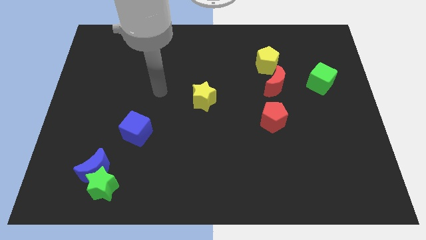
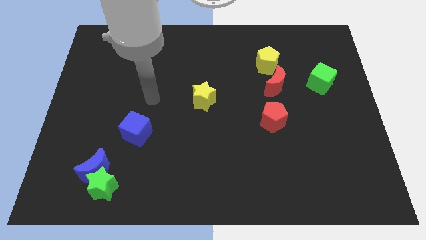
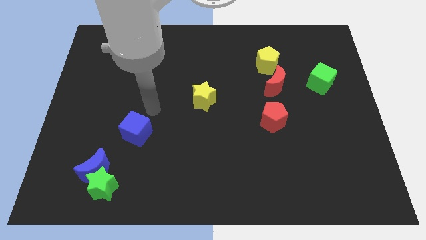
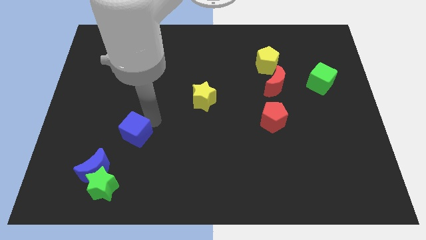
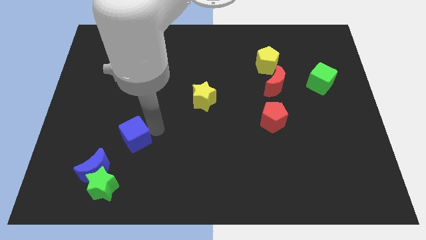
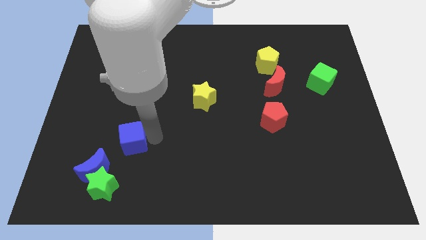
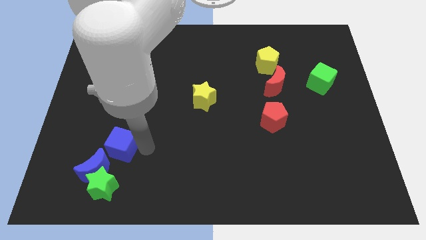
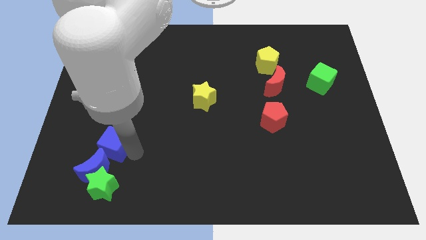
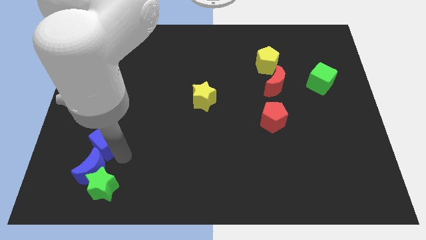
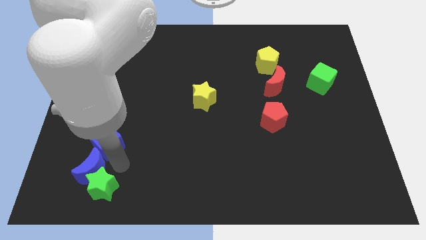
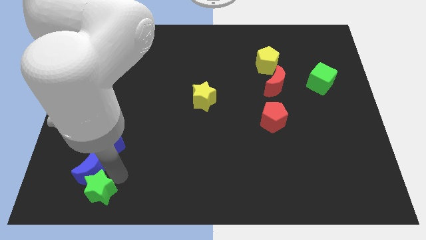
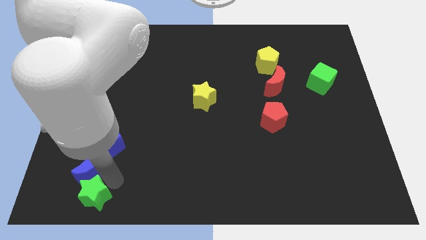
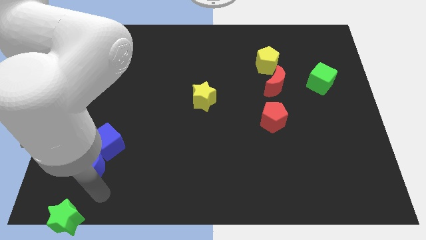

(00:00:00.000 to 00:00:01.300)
move the blue moon away from the green star

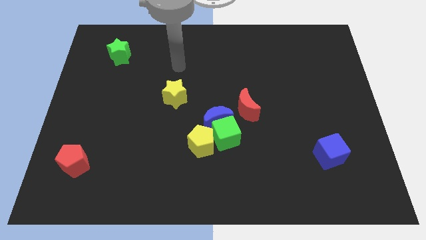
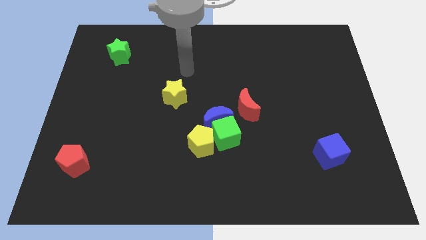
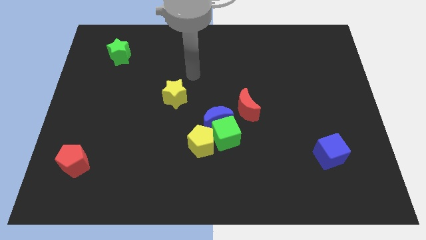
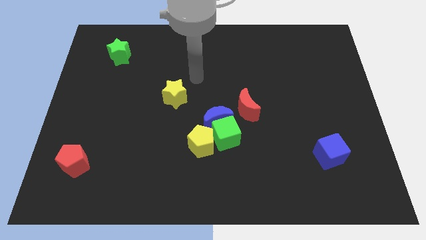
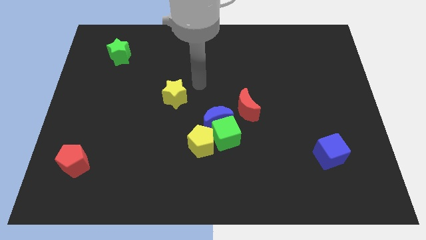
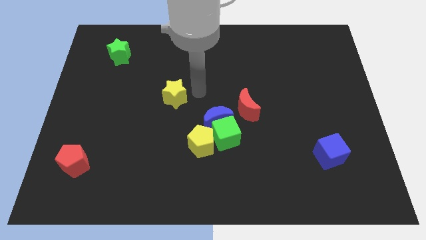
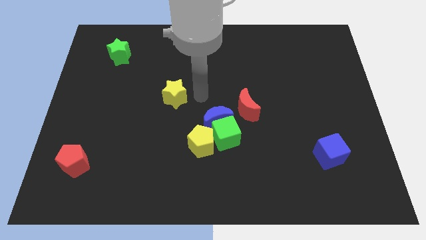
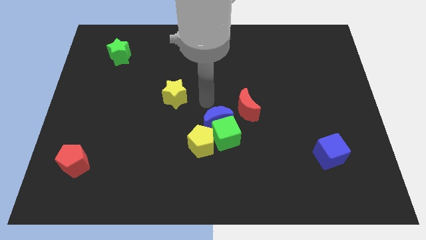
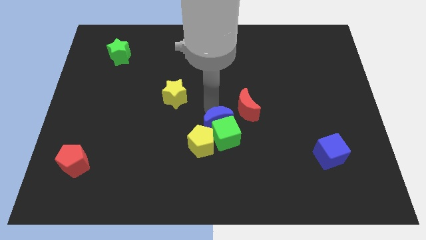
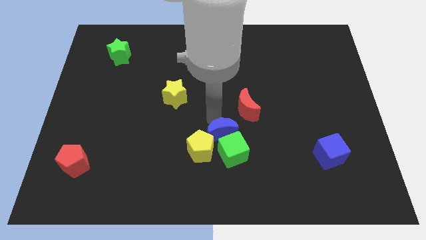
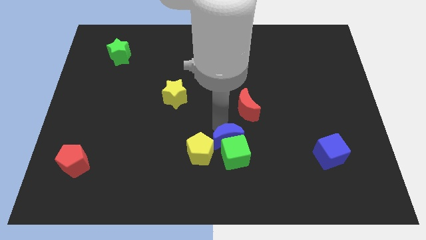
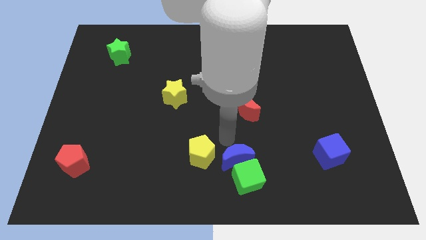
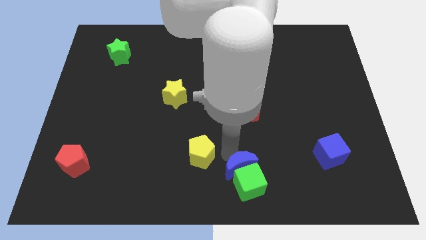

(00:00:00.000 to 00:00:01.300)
separate the yellow pentagon from the green cube and blue moon

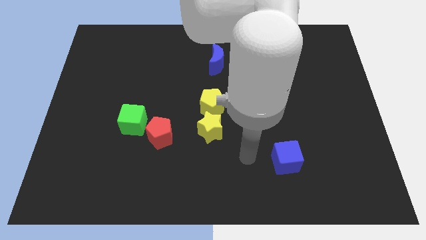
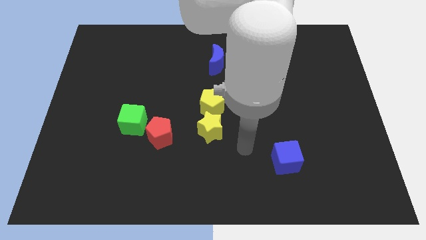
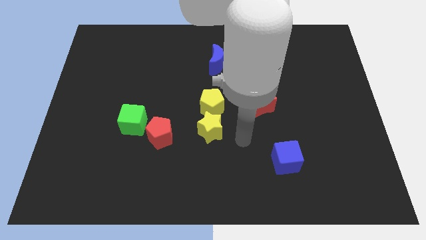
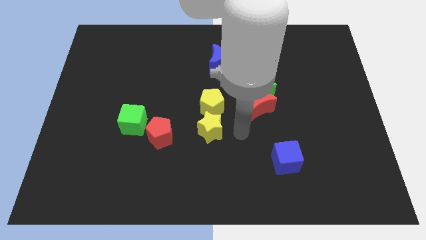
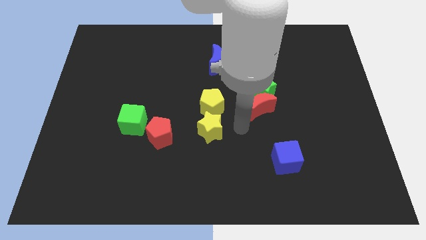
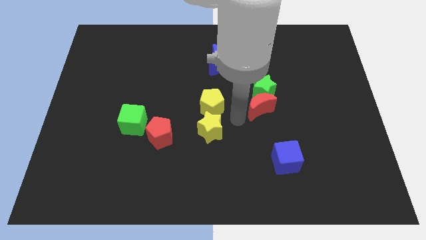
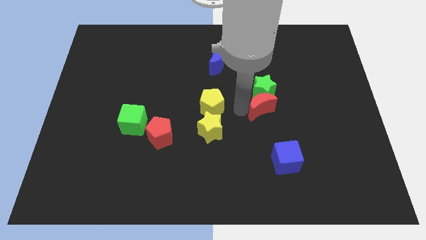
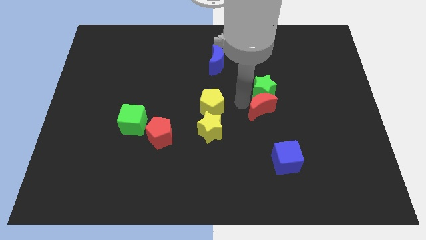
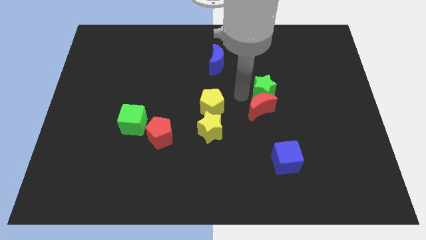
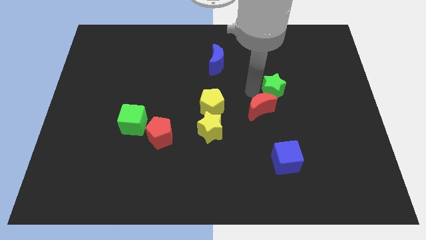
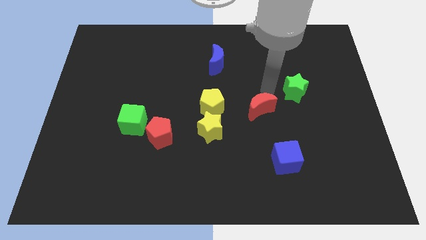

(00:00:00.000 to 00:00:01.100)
pull the red moon apart from the green star

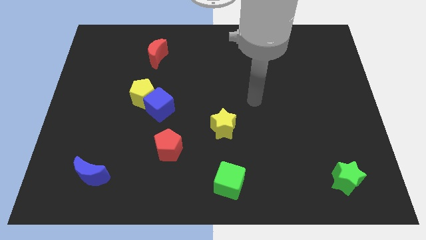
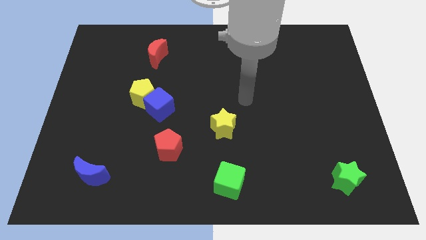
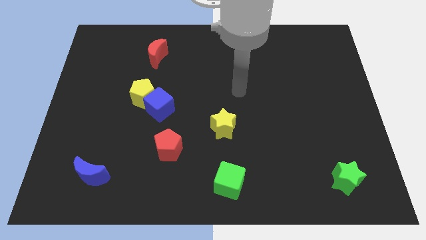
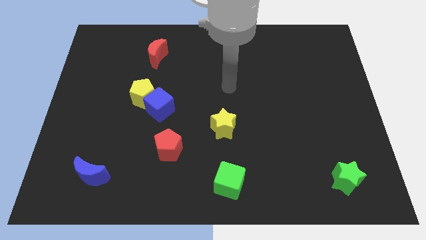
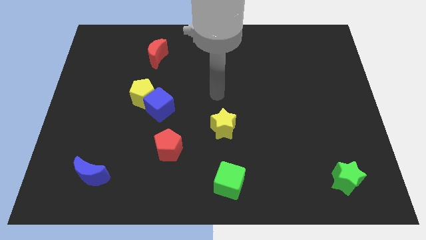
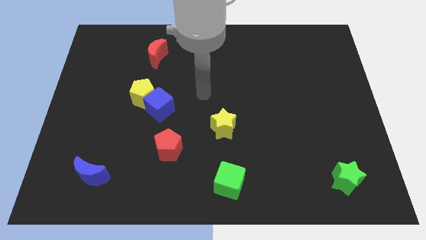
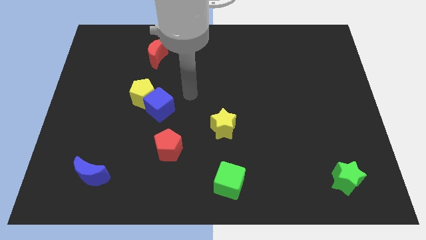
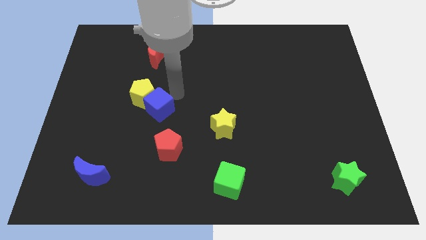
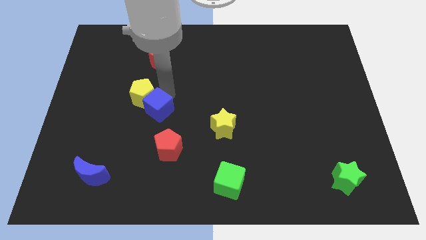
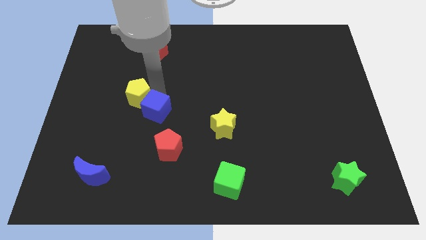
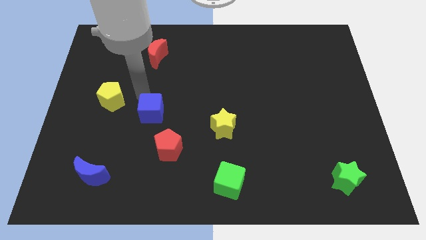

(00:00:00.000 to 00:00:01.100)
pull the blue cube apart from the yellow pentagon

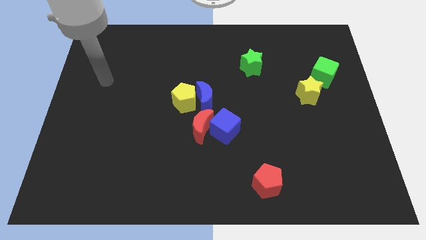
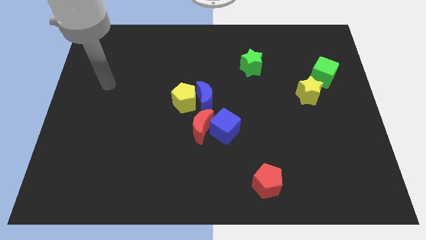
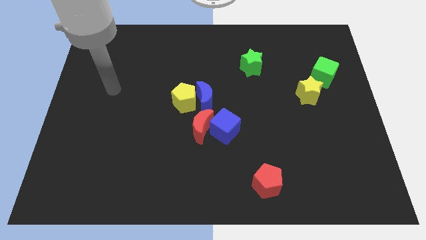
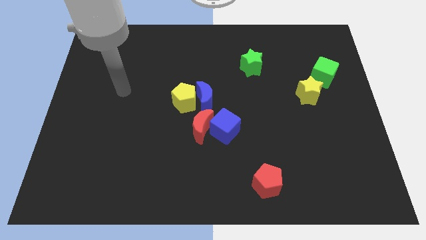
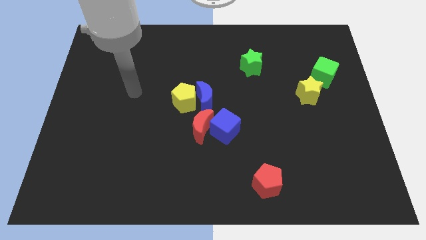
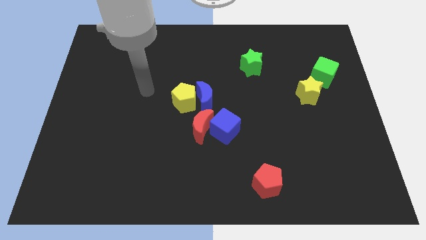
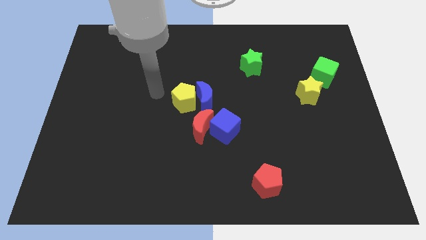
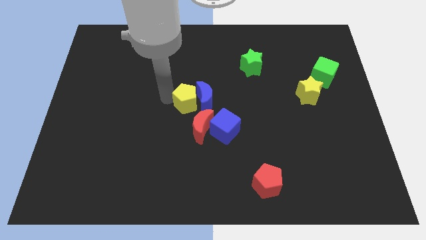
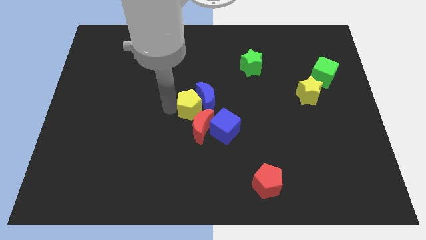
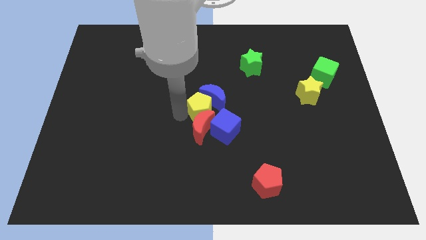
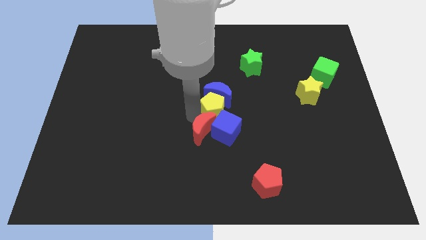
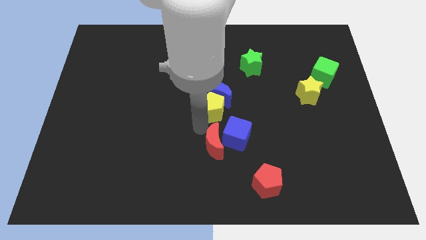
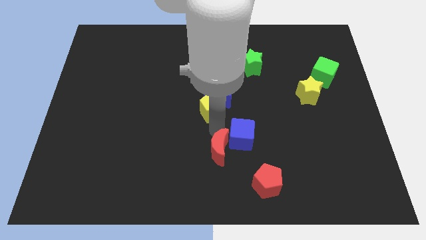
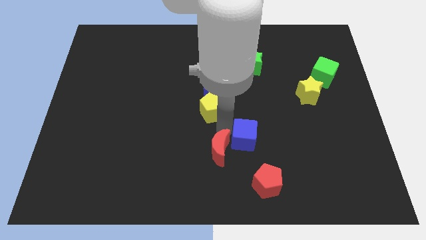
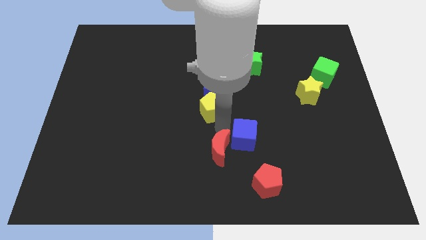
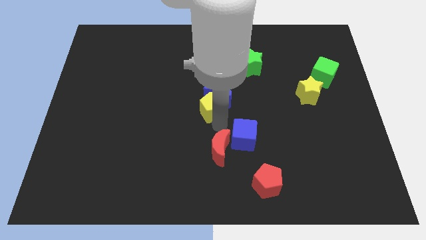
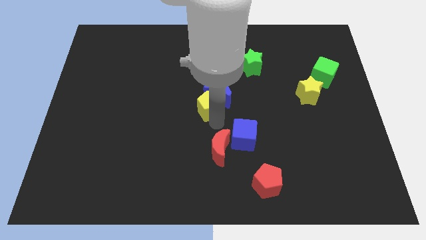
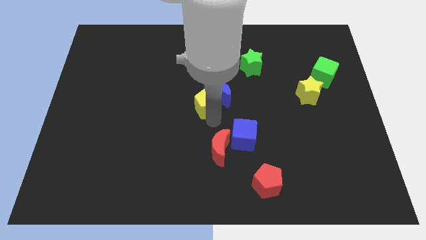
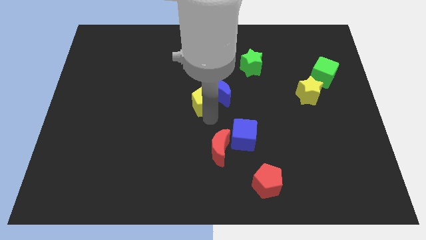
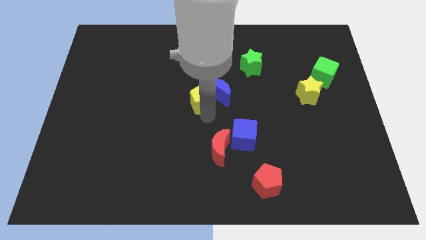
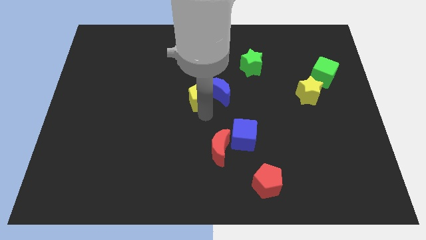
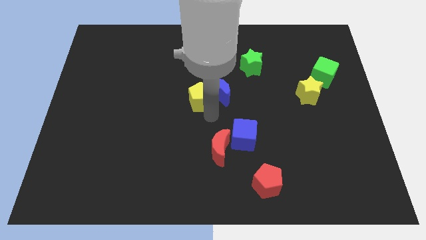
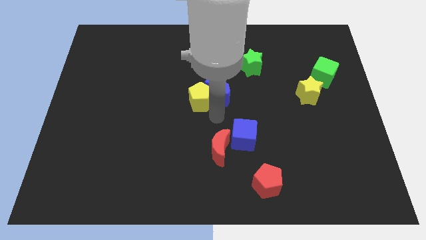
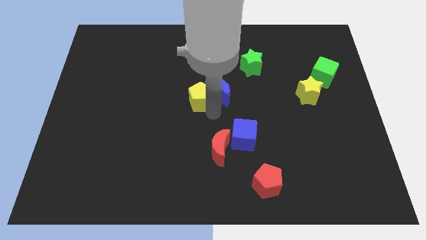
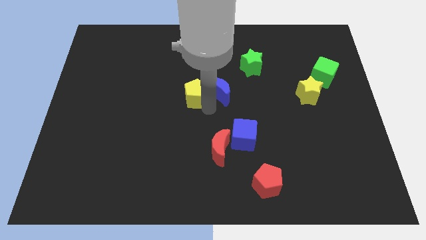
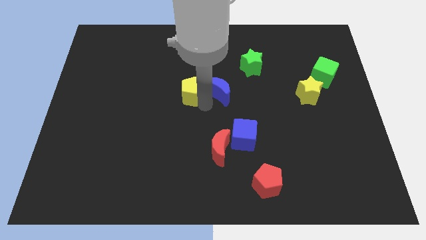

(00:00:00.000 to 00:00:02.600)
separate the yellow pentagon from the blue moon and red moon

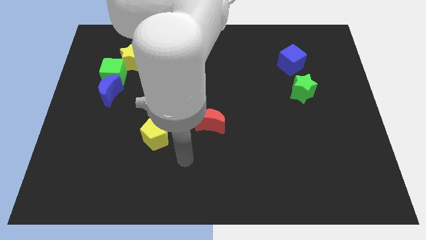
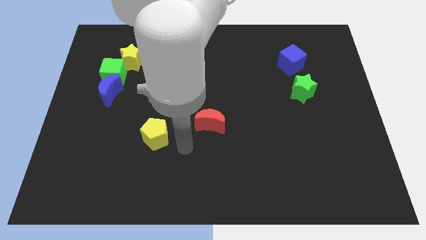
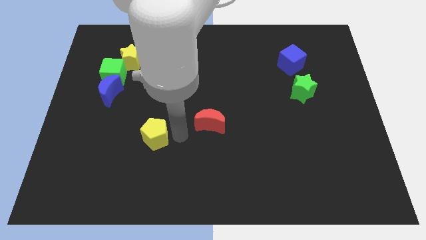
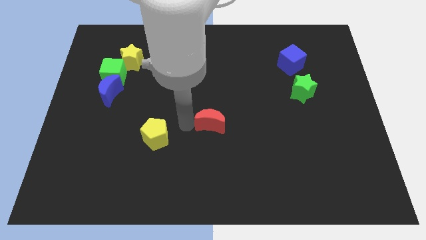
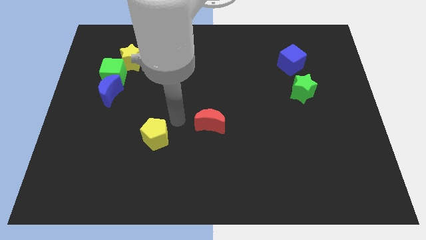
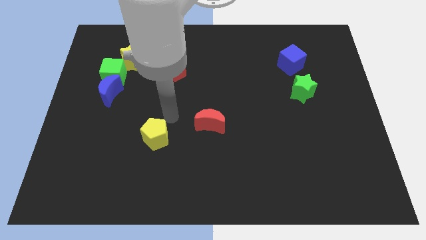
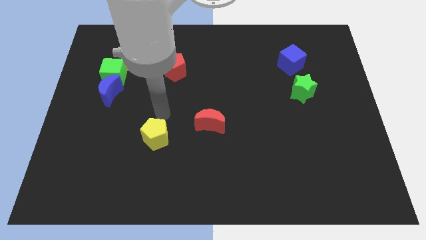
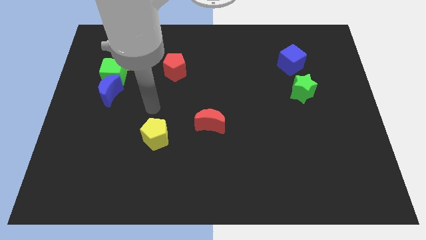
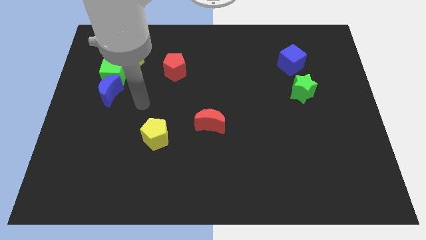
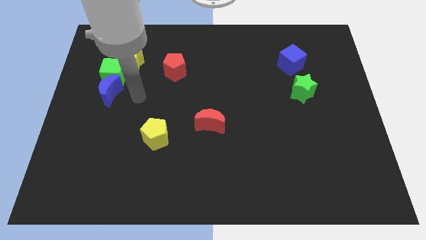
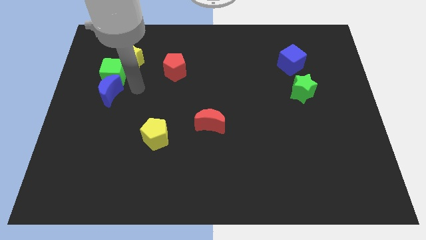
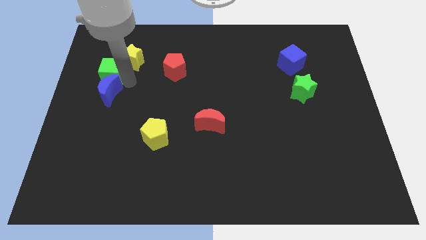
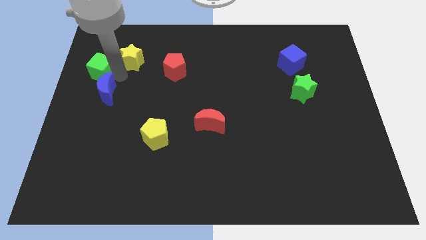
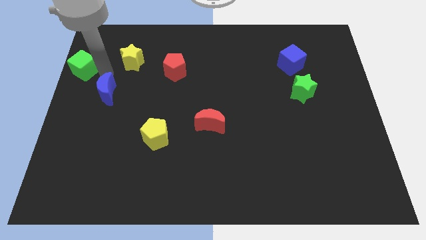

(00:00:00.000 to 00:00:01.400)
separate the blue moon from the green cube

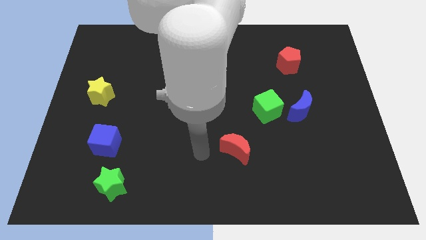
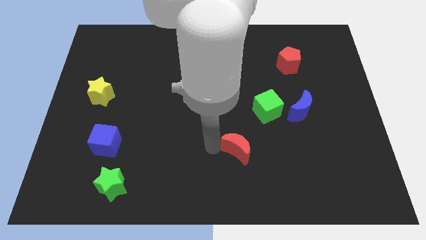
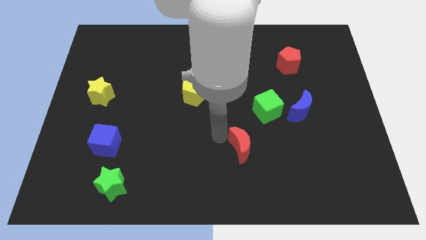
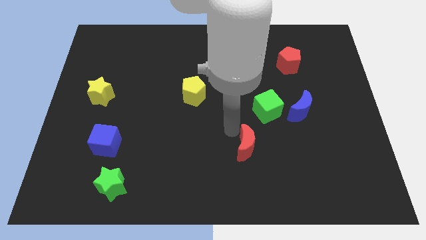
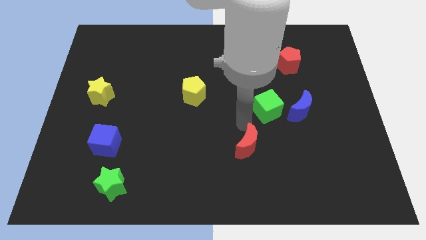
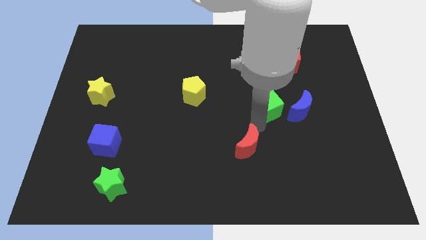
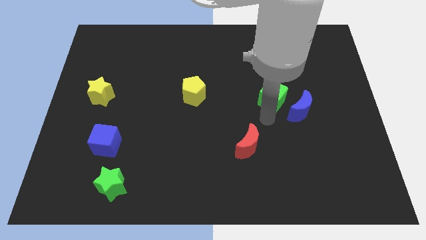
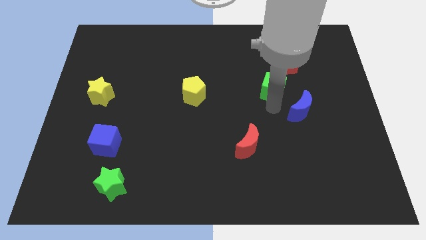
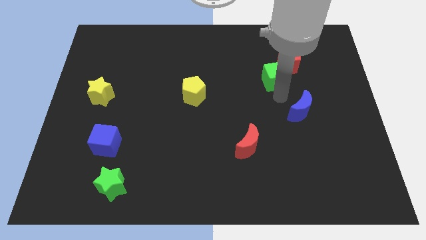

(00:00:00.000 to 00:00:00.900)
move the blue moon away from the green cube
